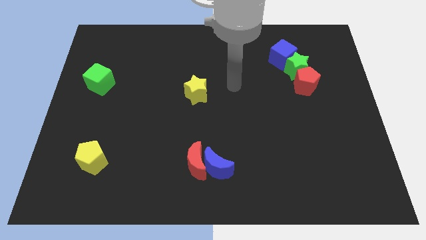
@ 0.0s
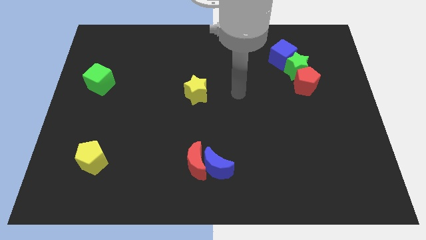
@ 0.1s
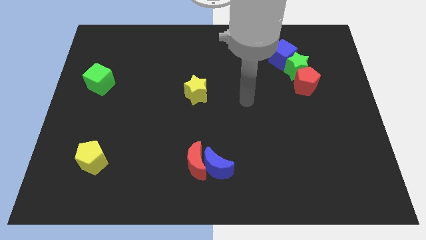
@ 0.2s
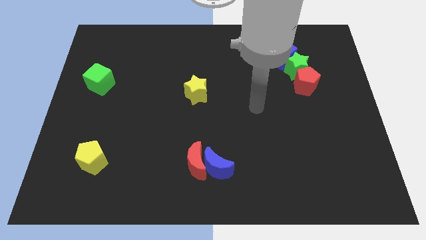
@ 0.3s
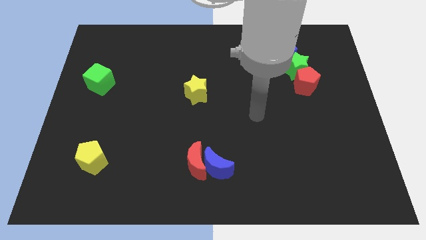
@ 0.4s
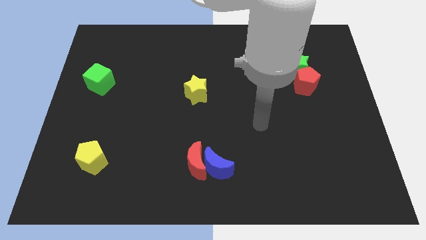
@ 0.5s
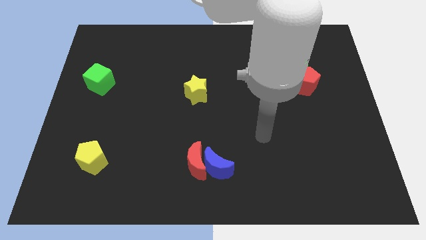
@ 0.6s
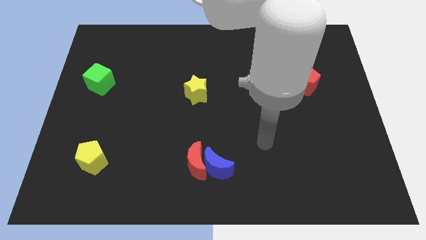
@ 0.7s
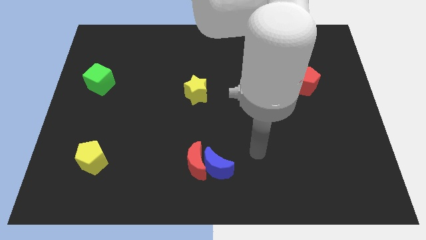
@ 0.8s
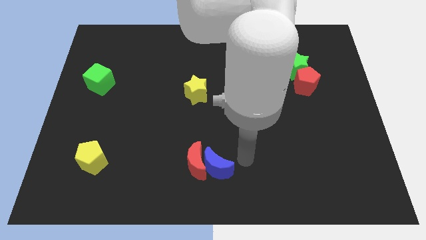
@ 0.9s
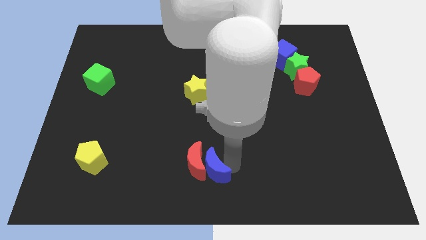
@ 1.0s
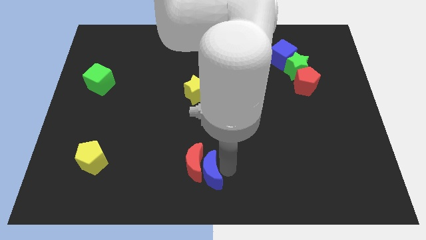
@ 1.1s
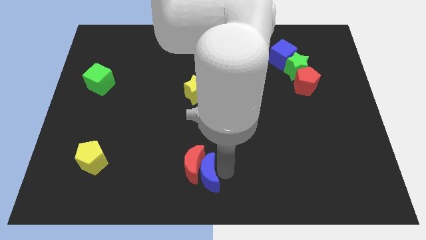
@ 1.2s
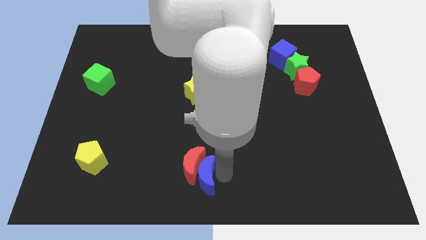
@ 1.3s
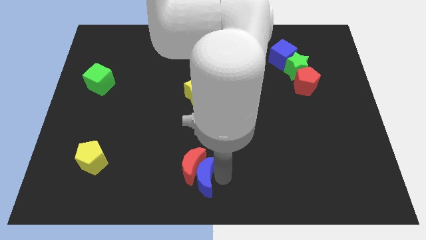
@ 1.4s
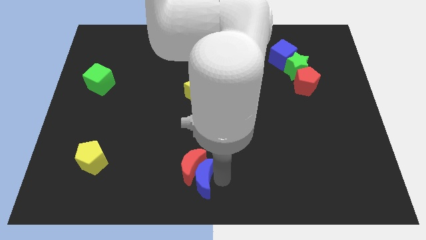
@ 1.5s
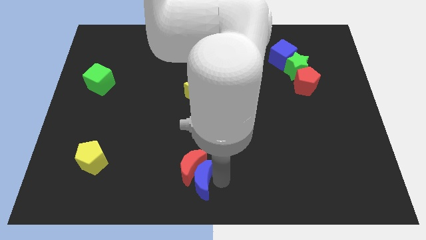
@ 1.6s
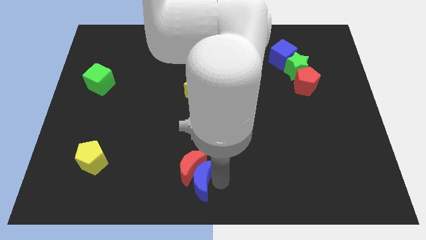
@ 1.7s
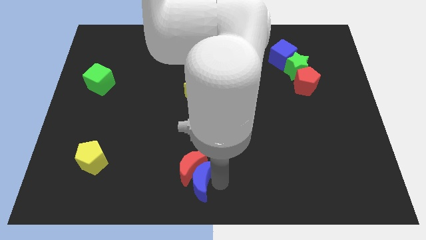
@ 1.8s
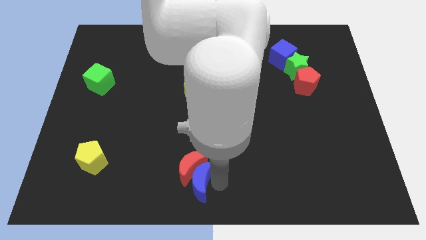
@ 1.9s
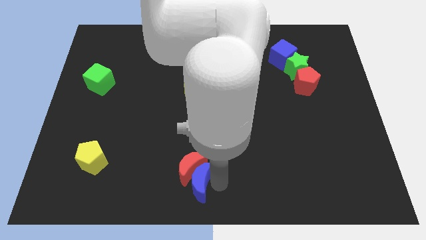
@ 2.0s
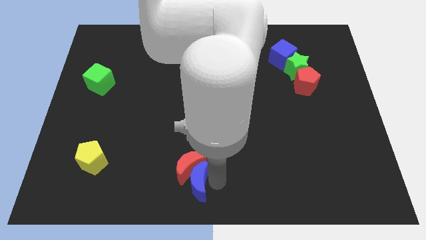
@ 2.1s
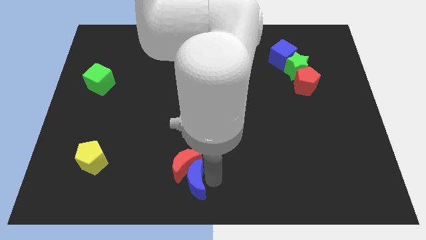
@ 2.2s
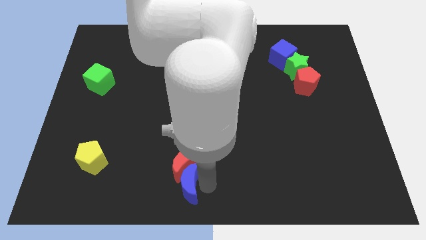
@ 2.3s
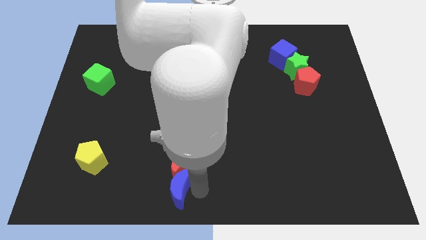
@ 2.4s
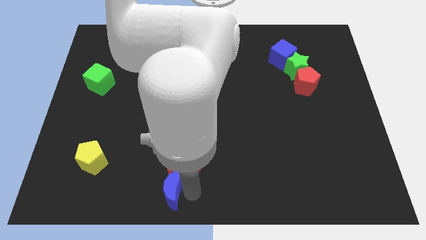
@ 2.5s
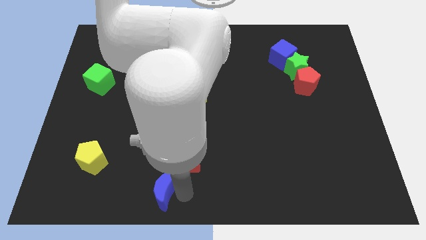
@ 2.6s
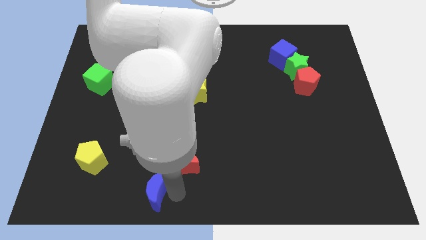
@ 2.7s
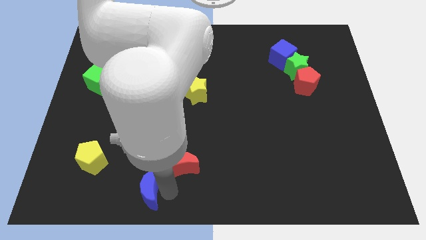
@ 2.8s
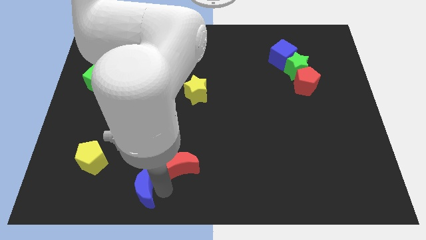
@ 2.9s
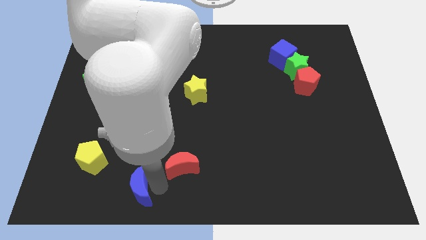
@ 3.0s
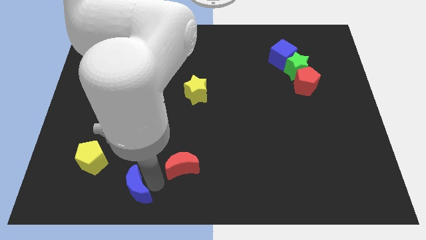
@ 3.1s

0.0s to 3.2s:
move the red moon away from the blue moon

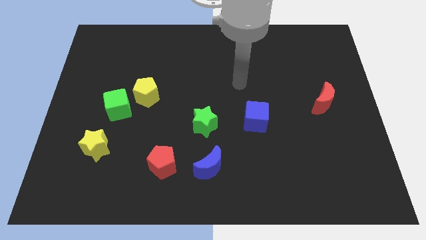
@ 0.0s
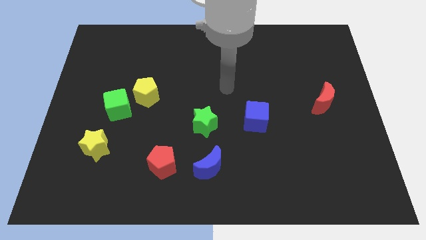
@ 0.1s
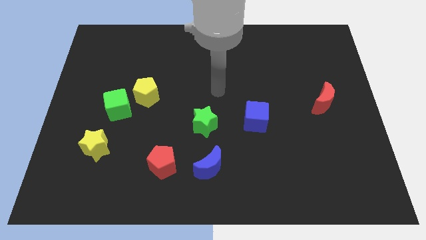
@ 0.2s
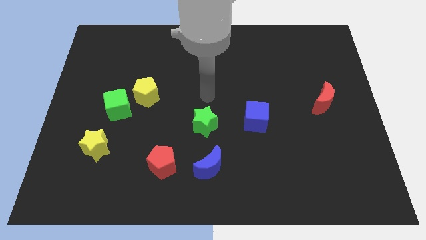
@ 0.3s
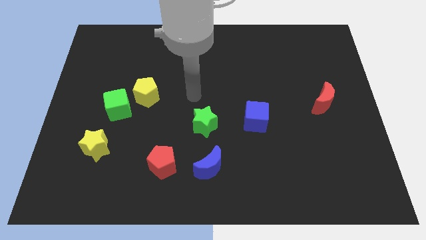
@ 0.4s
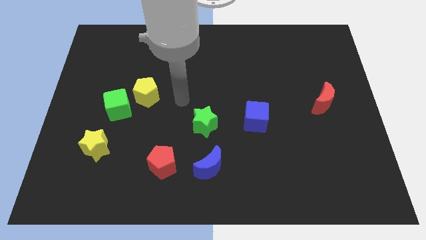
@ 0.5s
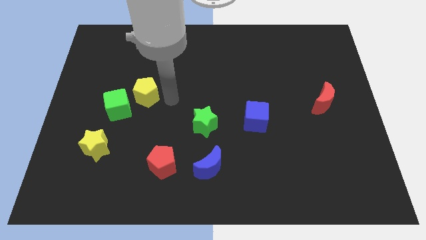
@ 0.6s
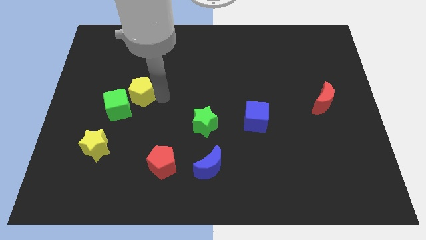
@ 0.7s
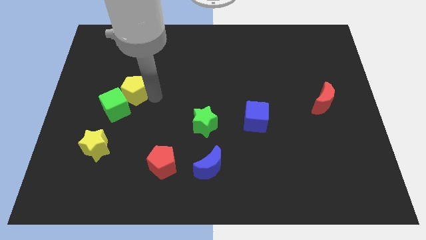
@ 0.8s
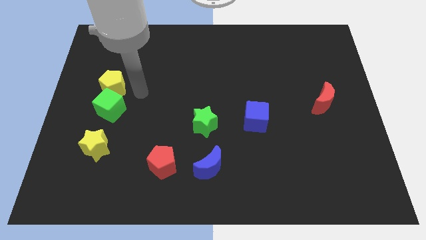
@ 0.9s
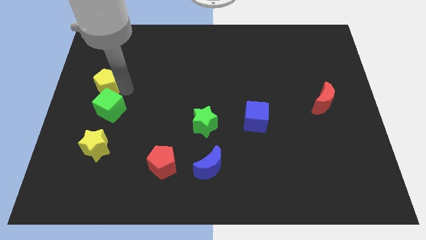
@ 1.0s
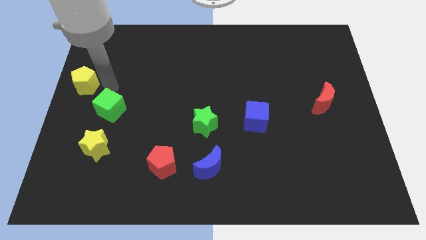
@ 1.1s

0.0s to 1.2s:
pull the green cube apart from the yellow pentagon

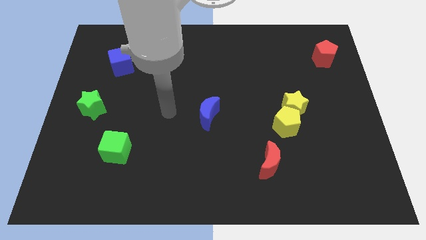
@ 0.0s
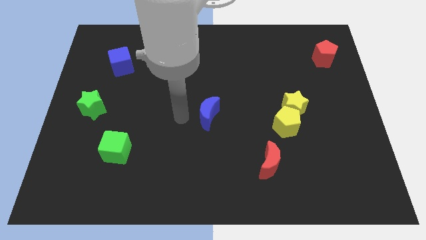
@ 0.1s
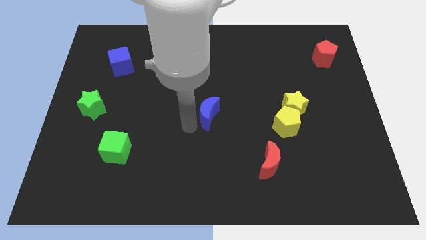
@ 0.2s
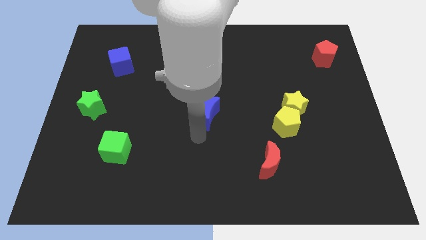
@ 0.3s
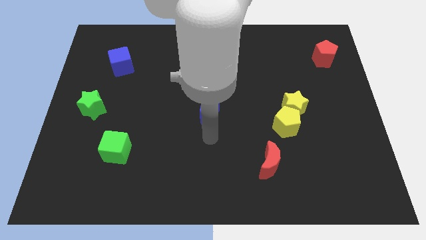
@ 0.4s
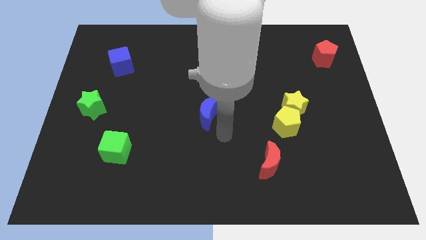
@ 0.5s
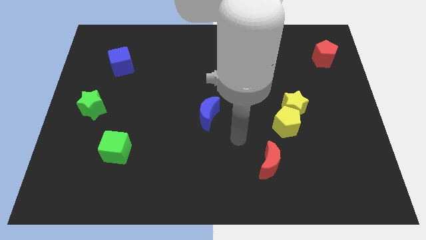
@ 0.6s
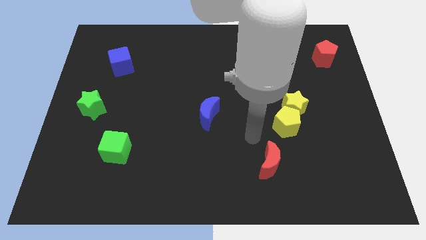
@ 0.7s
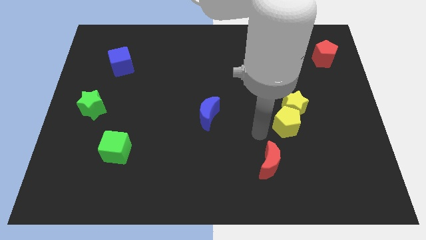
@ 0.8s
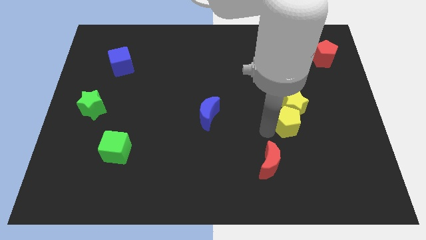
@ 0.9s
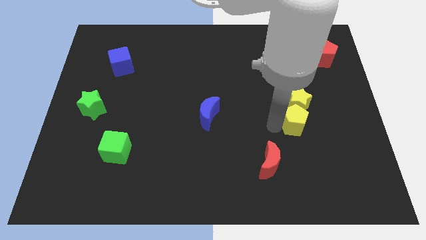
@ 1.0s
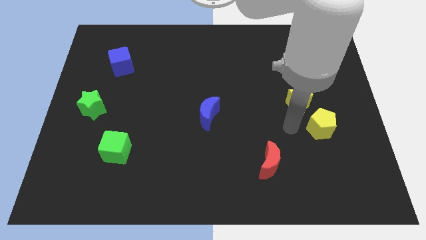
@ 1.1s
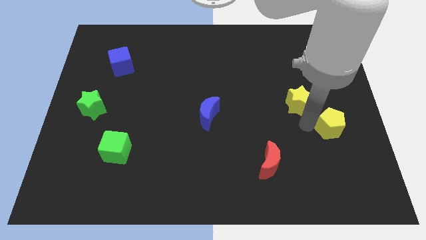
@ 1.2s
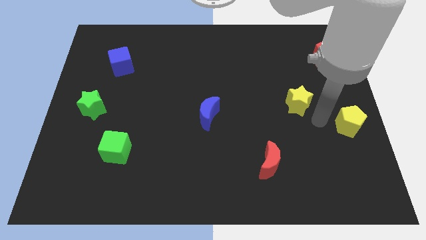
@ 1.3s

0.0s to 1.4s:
separate the yellow star from the yellow pentagon

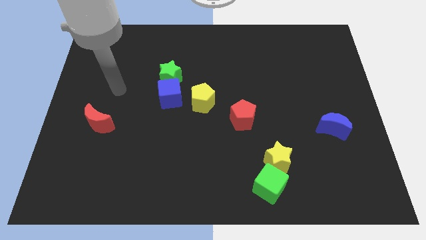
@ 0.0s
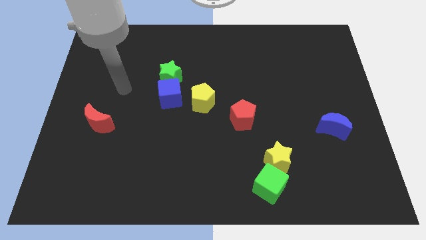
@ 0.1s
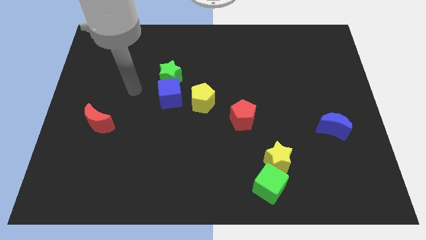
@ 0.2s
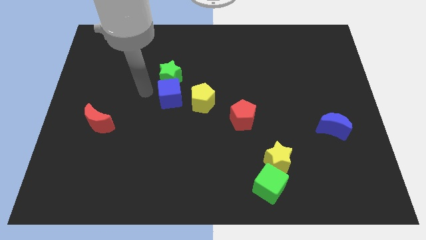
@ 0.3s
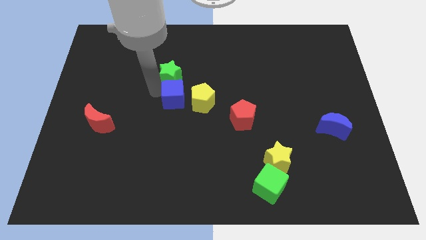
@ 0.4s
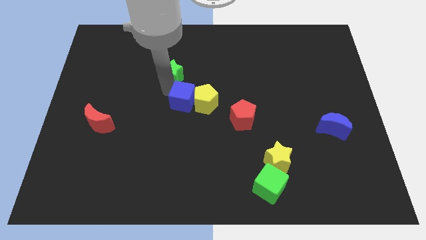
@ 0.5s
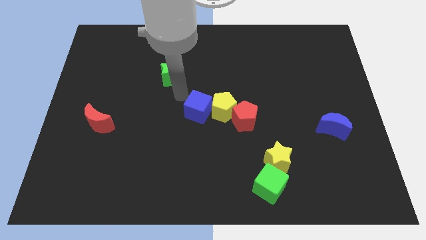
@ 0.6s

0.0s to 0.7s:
separate the green star from the blue cube

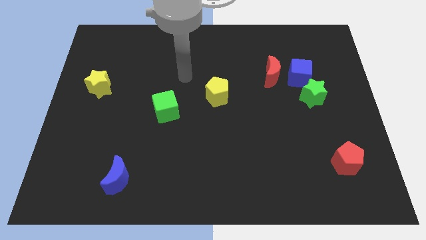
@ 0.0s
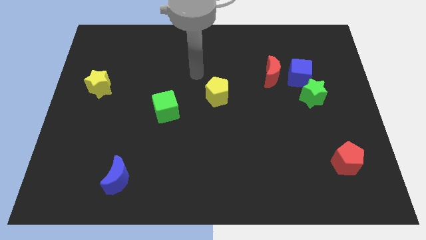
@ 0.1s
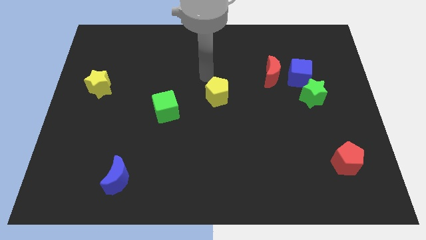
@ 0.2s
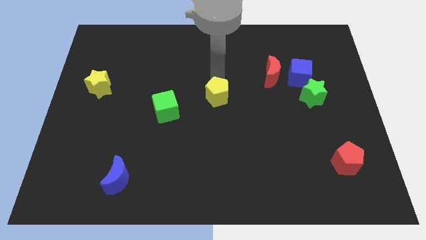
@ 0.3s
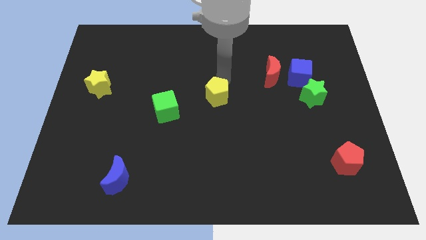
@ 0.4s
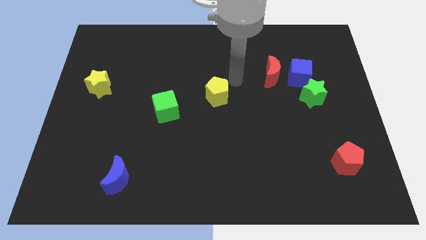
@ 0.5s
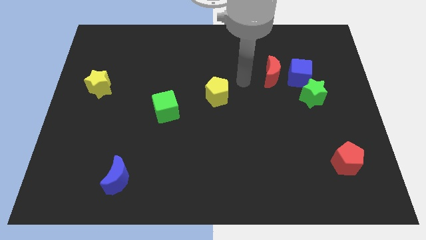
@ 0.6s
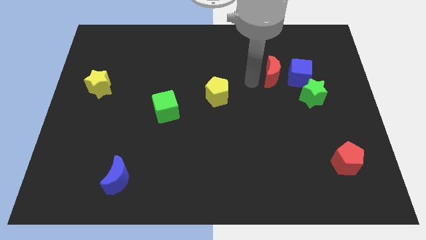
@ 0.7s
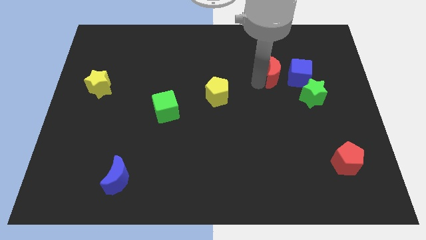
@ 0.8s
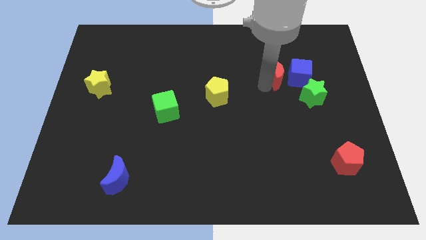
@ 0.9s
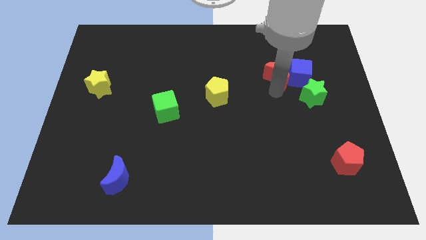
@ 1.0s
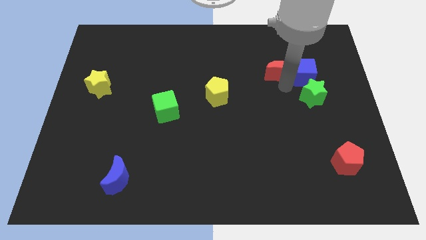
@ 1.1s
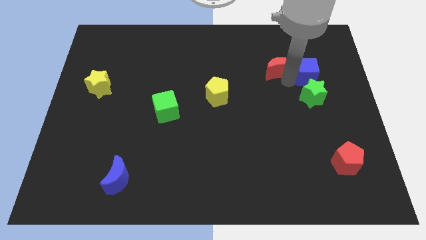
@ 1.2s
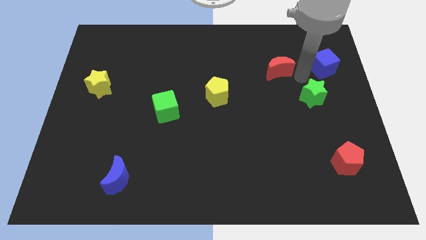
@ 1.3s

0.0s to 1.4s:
move the green star away from the blue cube

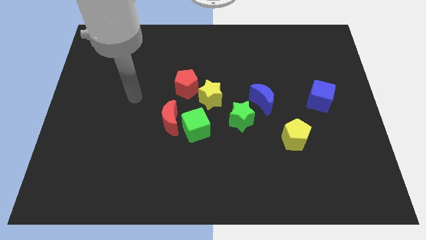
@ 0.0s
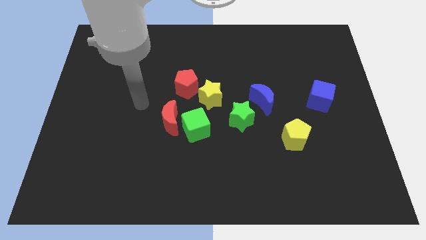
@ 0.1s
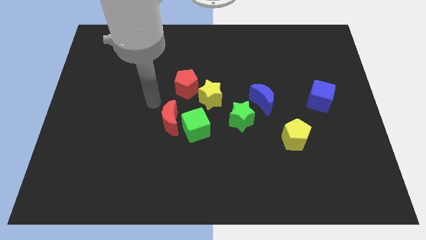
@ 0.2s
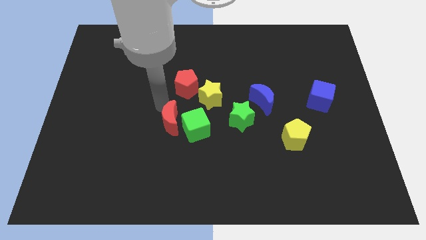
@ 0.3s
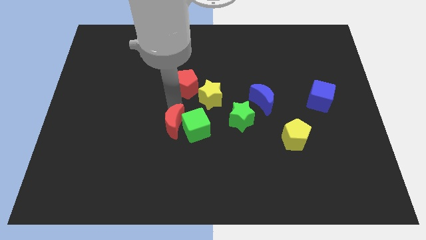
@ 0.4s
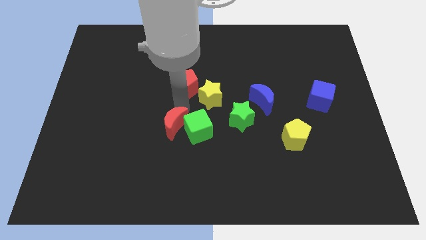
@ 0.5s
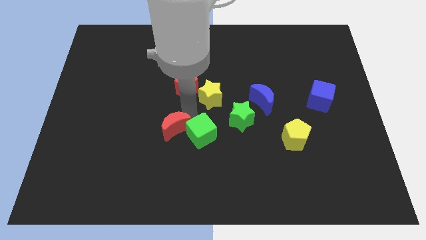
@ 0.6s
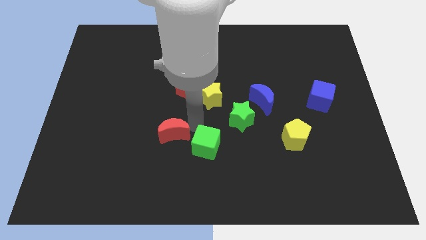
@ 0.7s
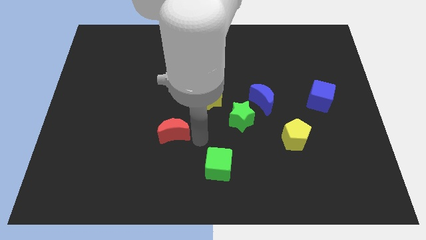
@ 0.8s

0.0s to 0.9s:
separate the red moon from the green cube

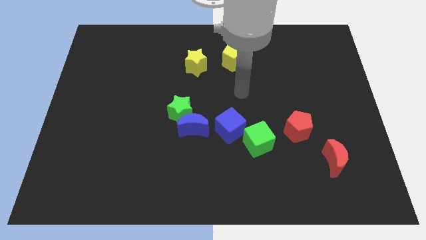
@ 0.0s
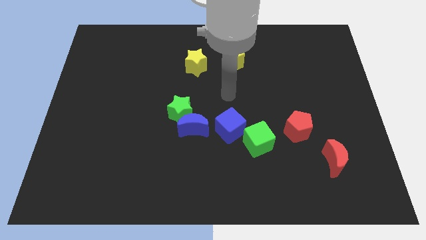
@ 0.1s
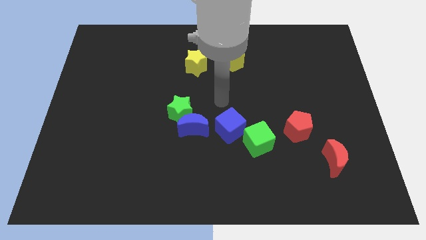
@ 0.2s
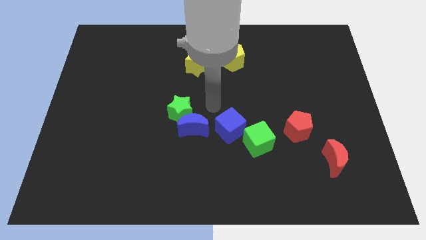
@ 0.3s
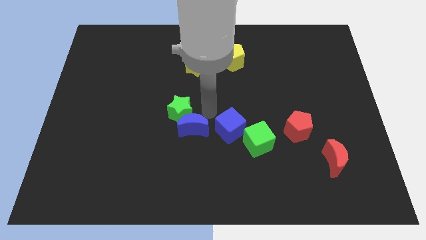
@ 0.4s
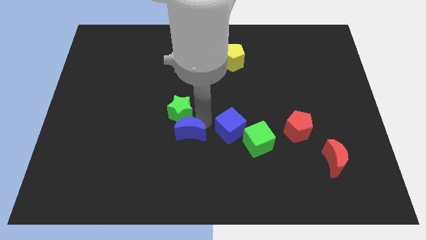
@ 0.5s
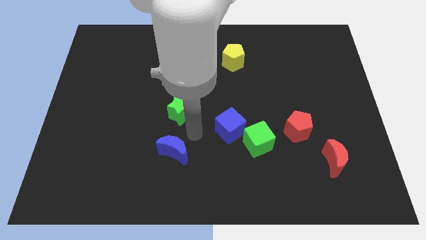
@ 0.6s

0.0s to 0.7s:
move the green star away from the blue moon
